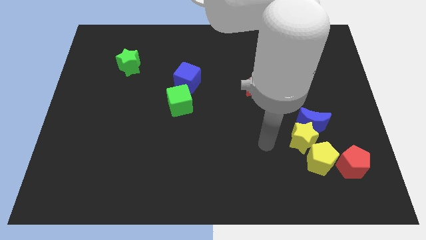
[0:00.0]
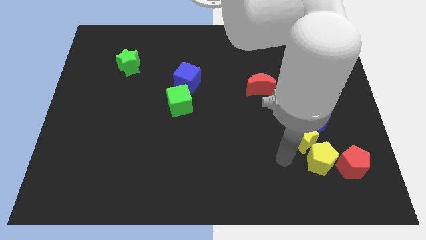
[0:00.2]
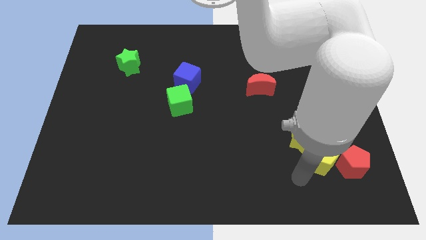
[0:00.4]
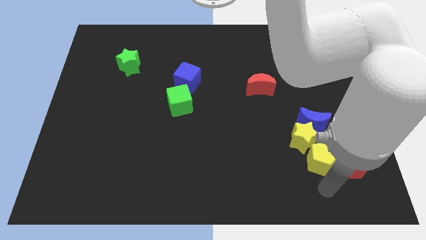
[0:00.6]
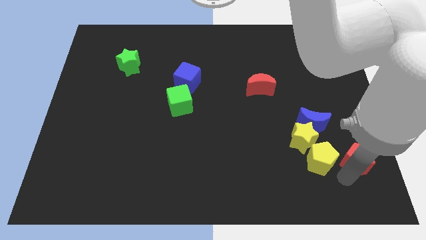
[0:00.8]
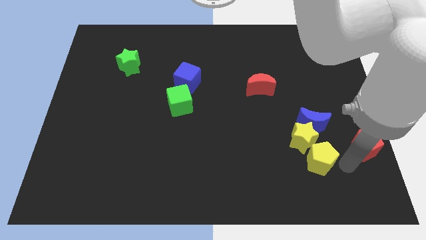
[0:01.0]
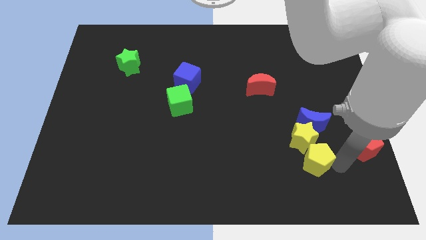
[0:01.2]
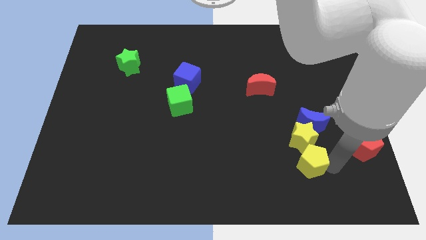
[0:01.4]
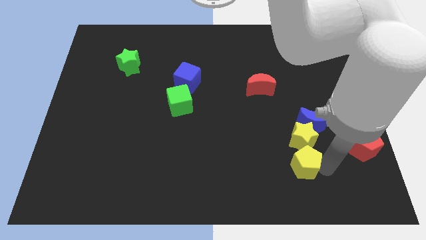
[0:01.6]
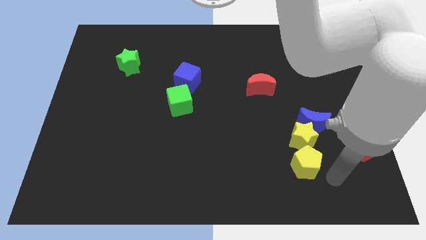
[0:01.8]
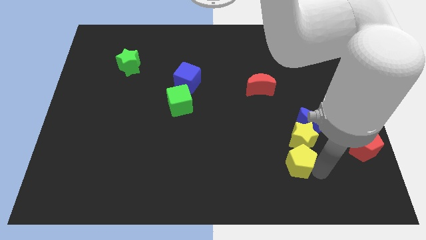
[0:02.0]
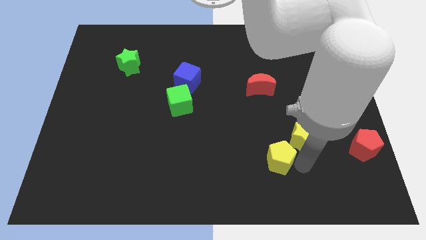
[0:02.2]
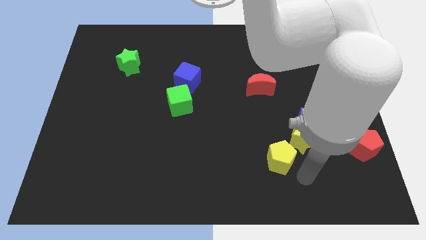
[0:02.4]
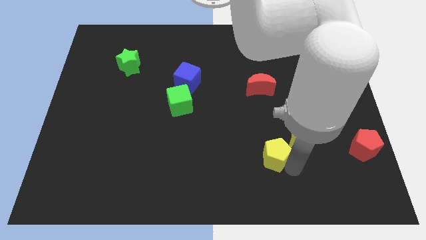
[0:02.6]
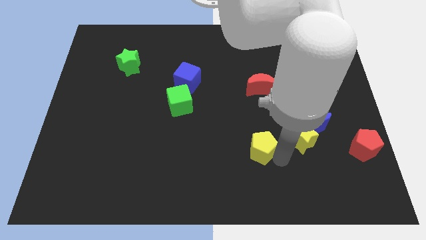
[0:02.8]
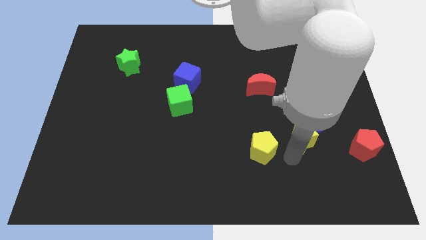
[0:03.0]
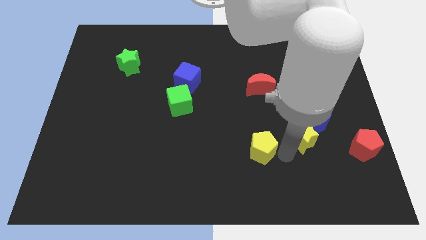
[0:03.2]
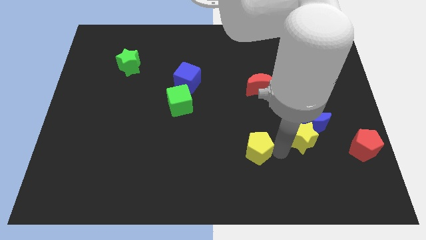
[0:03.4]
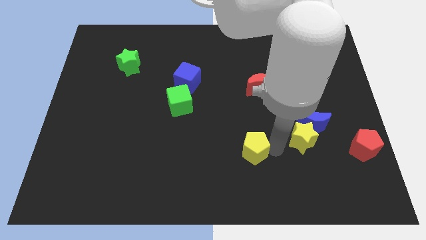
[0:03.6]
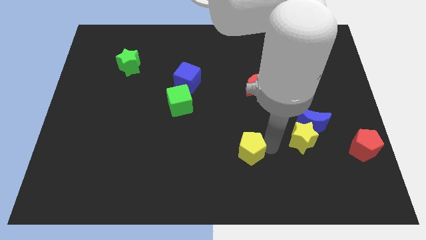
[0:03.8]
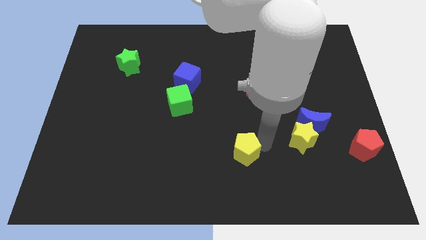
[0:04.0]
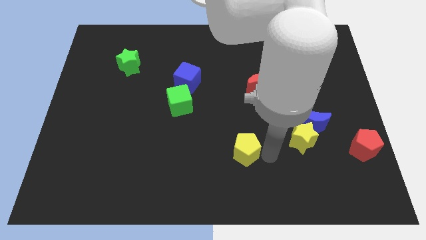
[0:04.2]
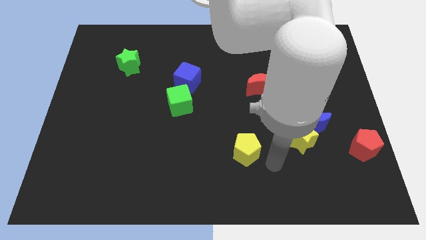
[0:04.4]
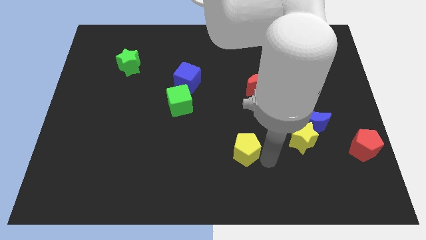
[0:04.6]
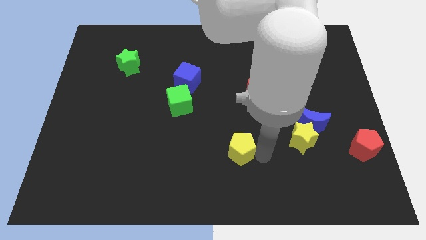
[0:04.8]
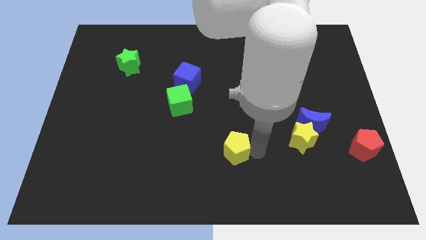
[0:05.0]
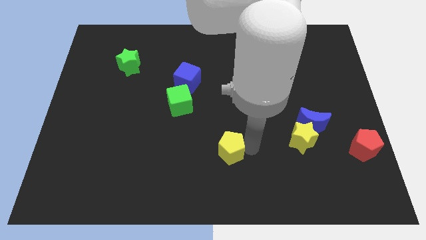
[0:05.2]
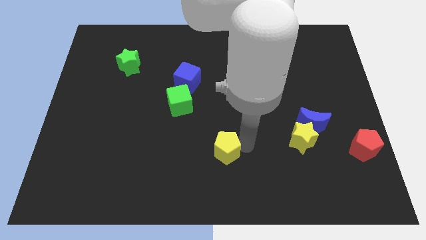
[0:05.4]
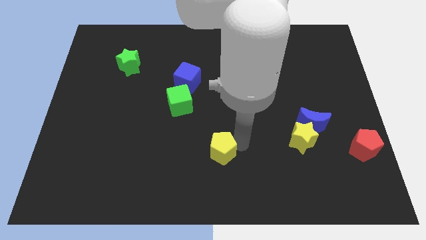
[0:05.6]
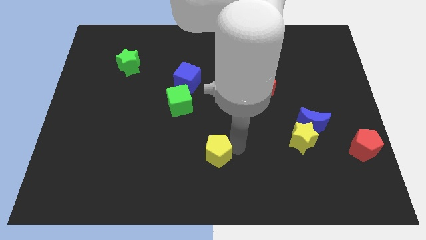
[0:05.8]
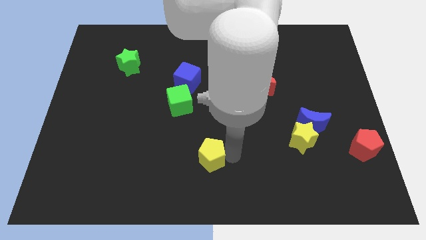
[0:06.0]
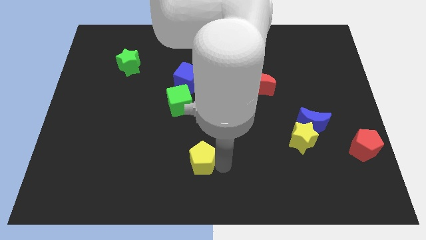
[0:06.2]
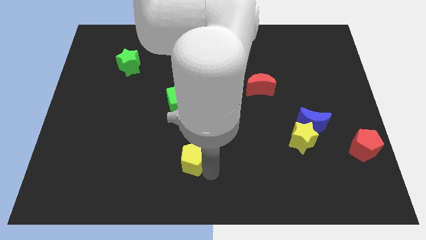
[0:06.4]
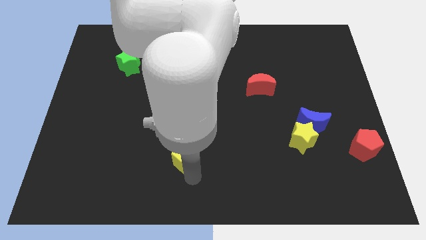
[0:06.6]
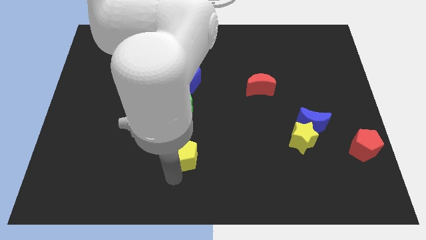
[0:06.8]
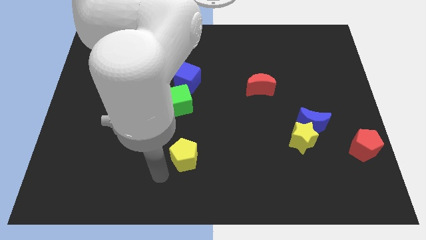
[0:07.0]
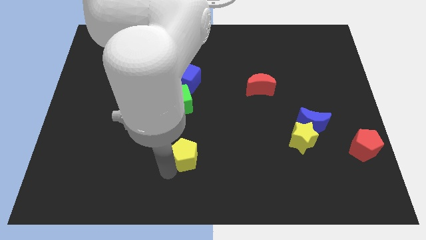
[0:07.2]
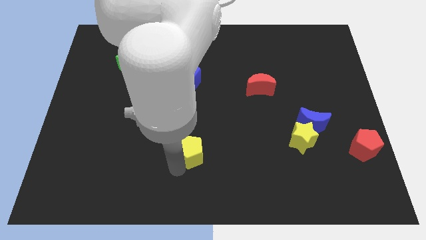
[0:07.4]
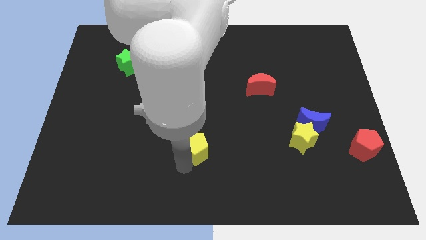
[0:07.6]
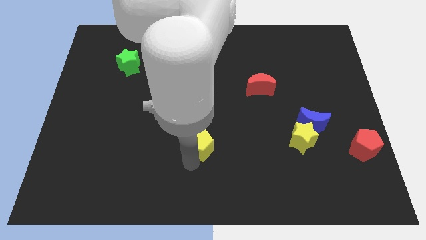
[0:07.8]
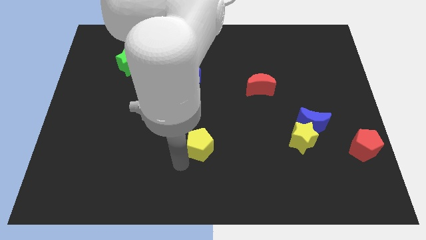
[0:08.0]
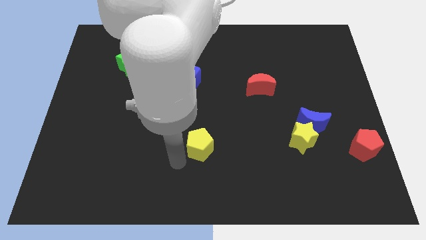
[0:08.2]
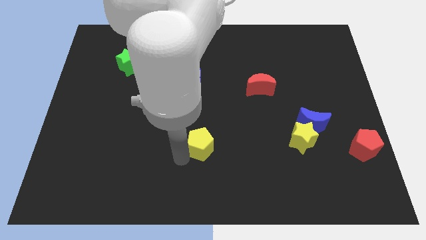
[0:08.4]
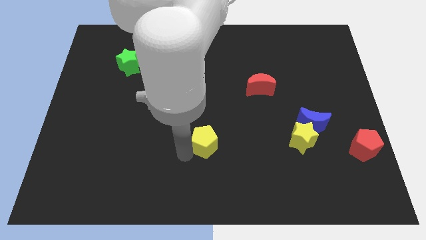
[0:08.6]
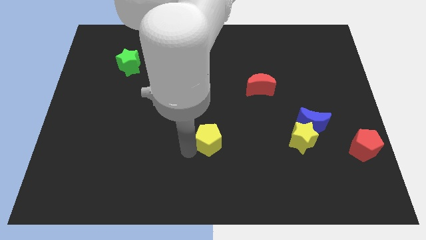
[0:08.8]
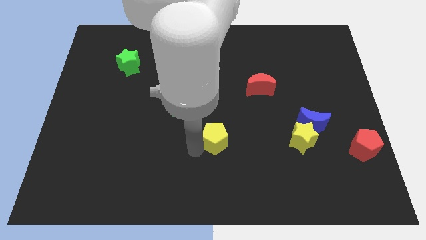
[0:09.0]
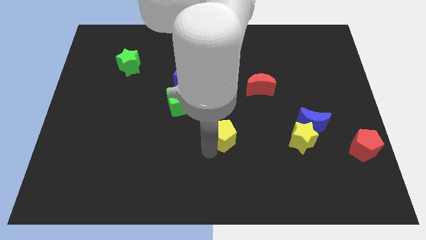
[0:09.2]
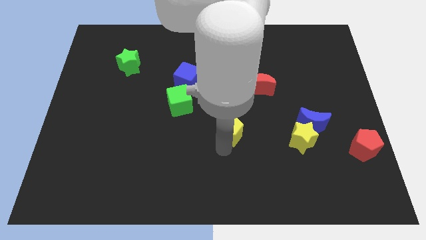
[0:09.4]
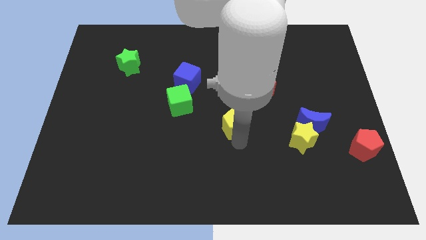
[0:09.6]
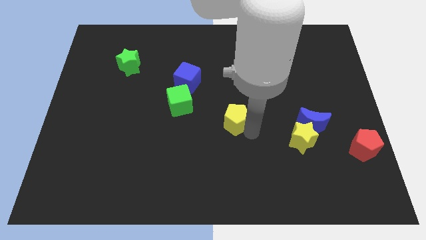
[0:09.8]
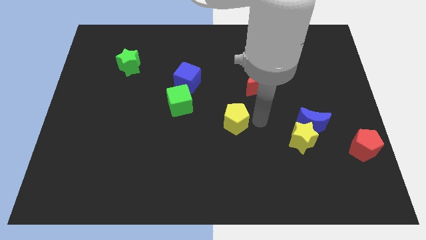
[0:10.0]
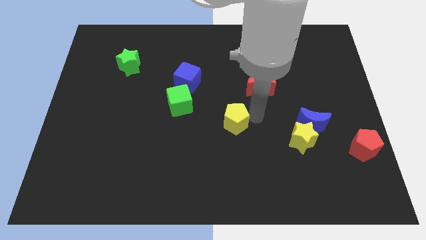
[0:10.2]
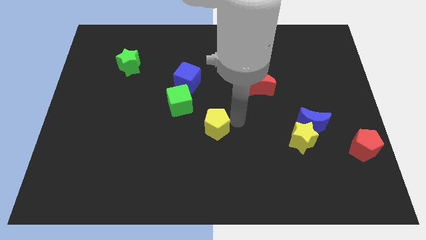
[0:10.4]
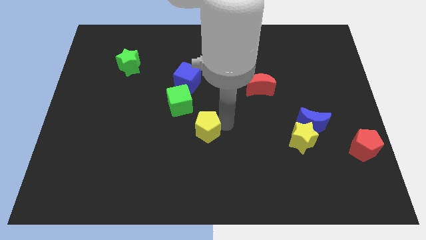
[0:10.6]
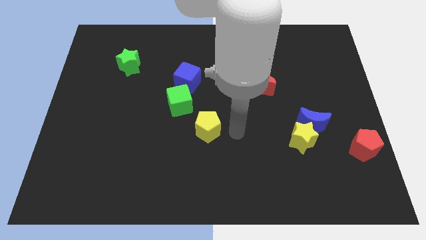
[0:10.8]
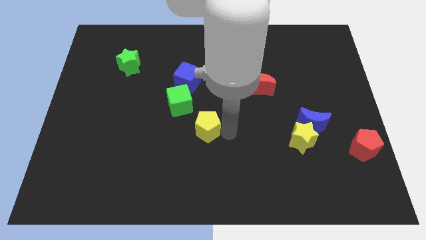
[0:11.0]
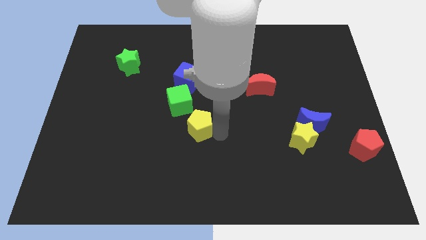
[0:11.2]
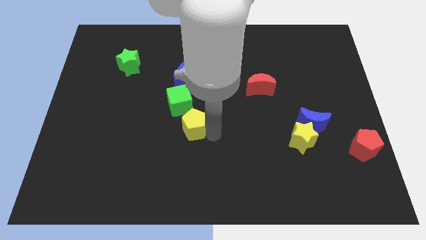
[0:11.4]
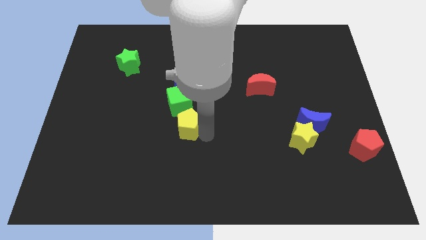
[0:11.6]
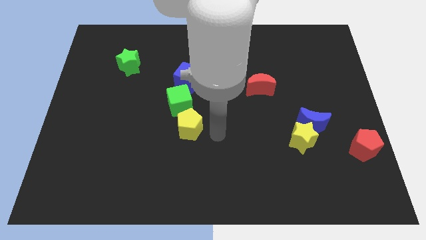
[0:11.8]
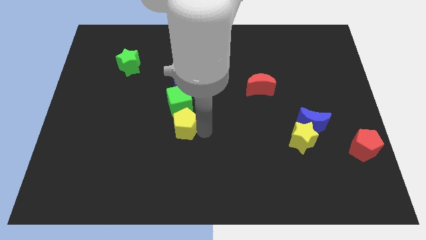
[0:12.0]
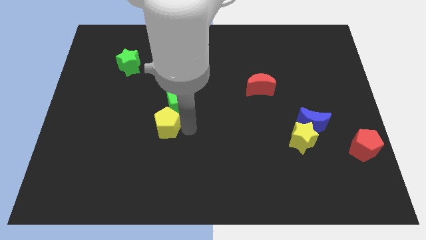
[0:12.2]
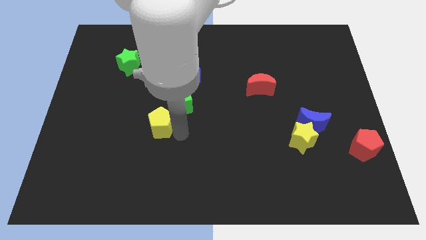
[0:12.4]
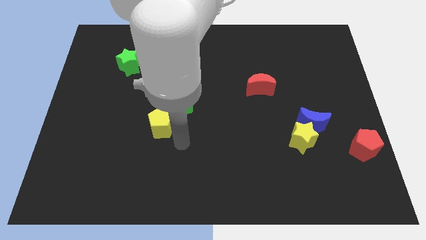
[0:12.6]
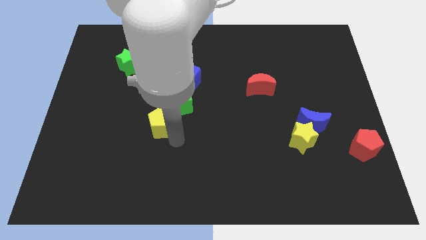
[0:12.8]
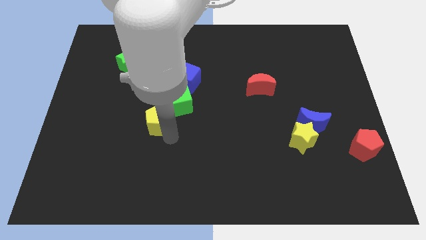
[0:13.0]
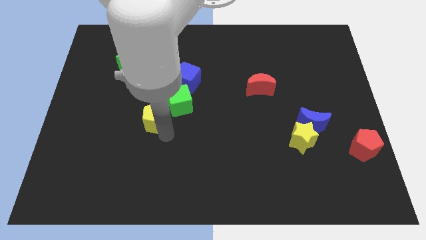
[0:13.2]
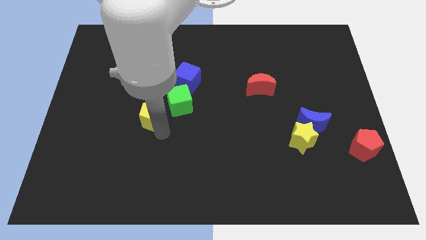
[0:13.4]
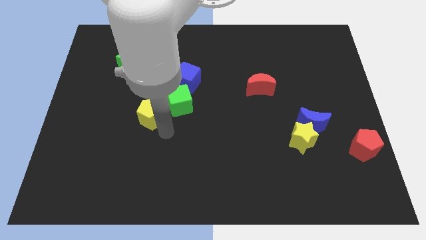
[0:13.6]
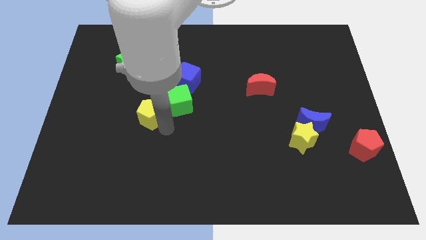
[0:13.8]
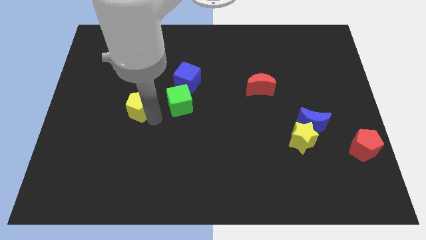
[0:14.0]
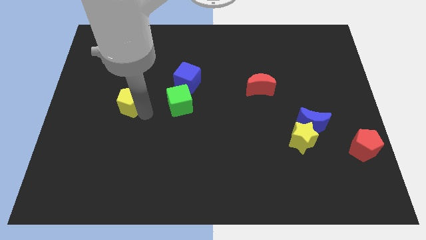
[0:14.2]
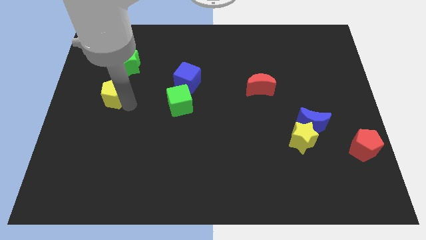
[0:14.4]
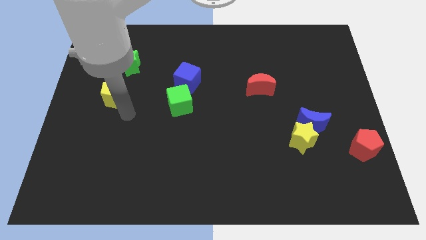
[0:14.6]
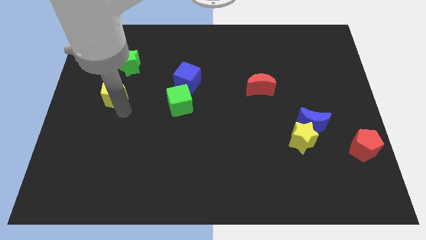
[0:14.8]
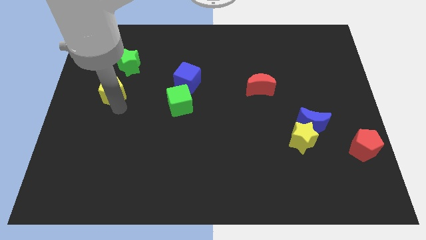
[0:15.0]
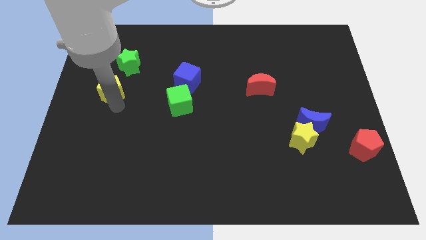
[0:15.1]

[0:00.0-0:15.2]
put the yellow pentagon diagonally down and to the left of the green star
